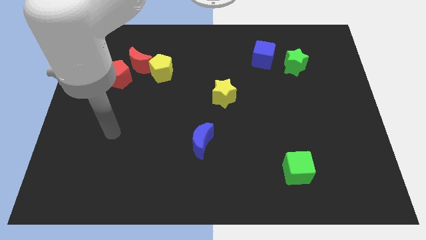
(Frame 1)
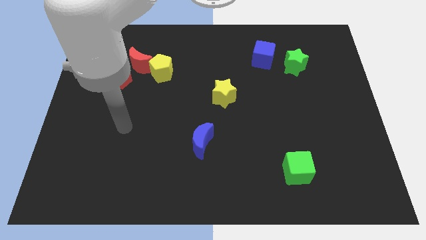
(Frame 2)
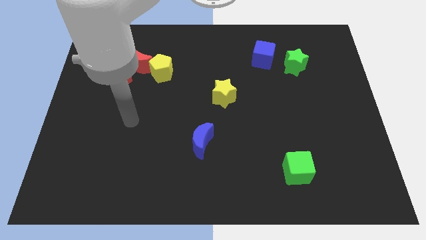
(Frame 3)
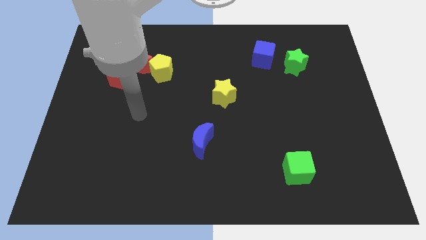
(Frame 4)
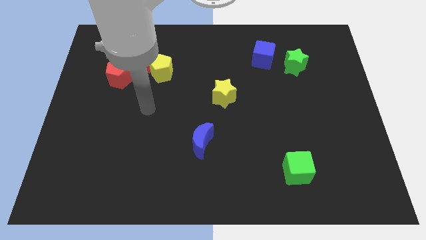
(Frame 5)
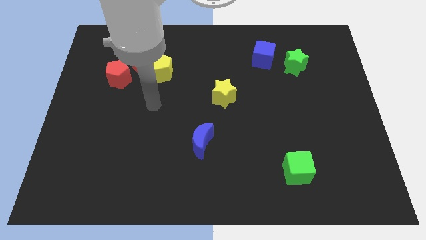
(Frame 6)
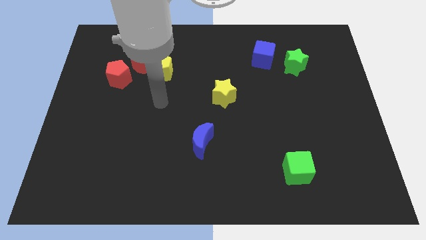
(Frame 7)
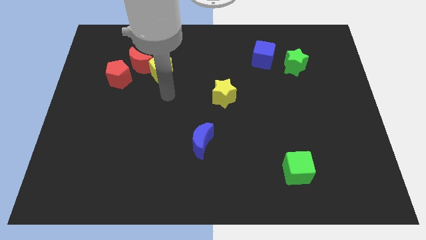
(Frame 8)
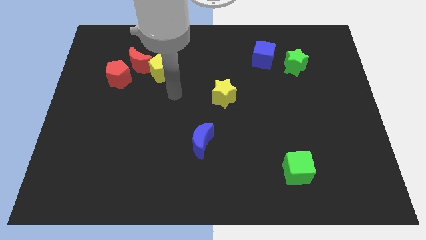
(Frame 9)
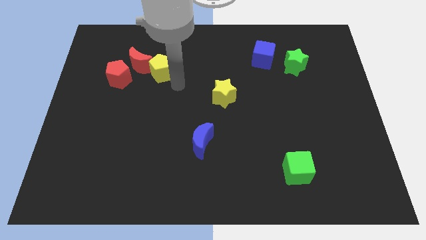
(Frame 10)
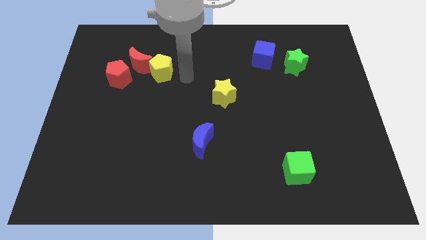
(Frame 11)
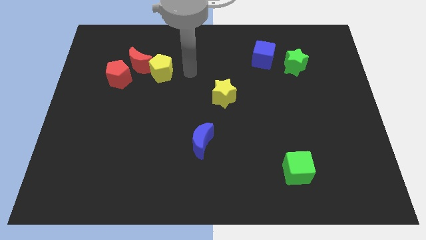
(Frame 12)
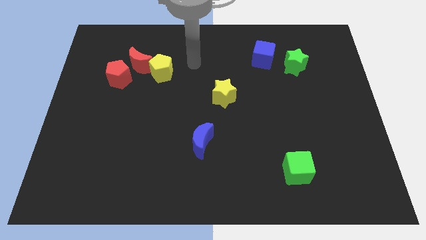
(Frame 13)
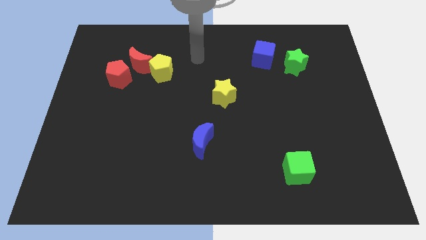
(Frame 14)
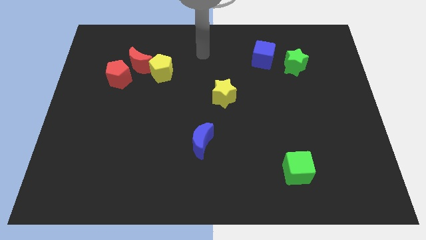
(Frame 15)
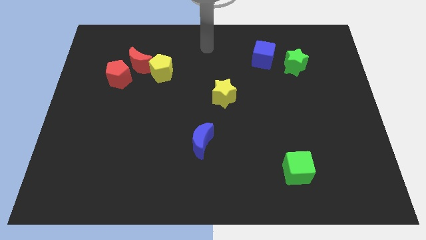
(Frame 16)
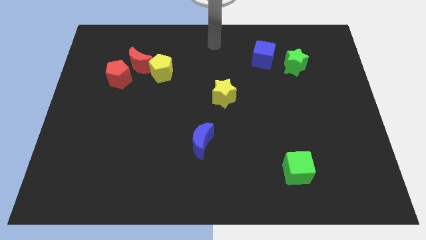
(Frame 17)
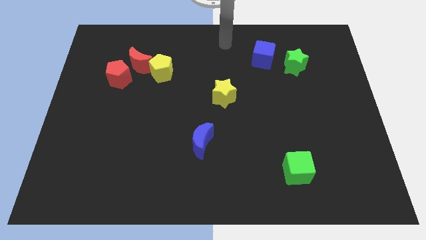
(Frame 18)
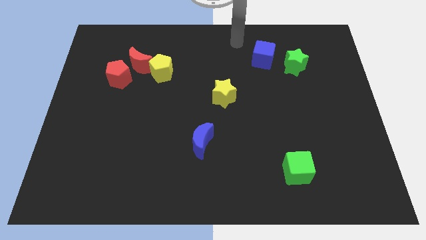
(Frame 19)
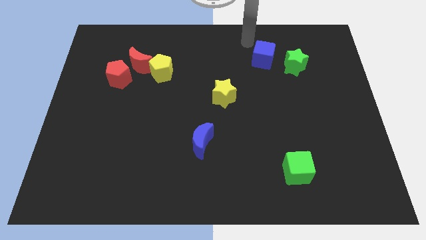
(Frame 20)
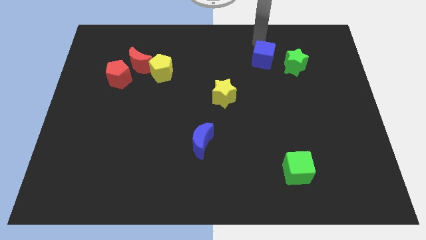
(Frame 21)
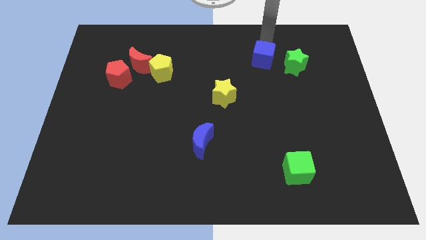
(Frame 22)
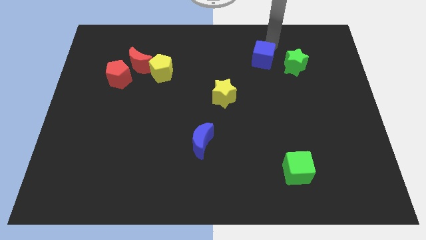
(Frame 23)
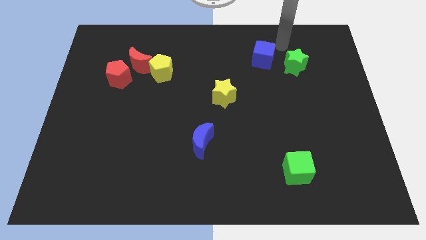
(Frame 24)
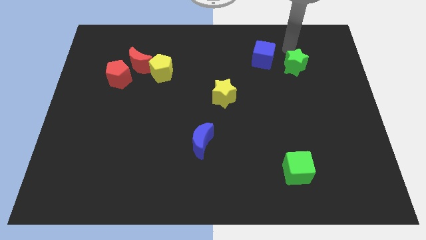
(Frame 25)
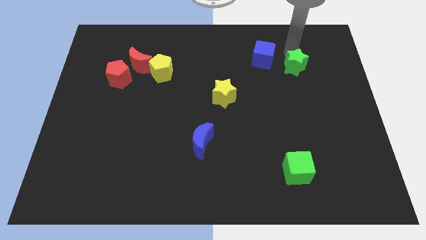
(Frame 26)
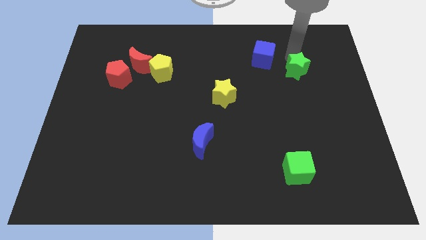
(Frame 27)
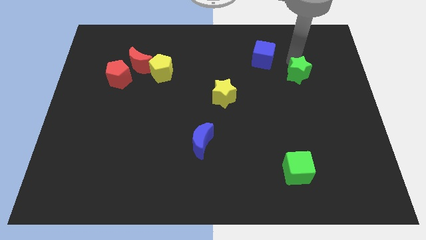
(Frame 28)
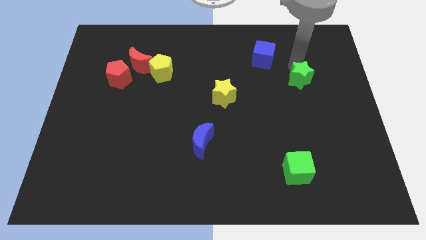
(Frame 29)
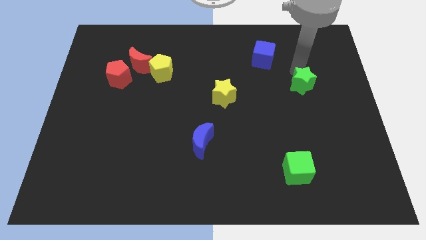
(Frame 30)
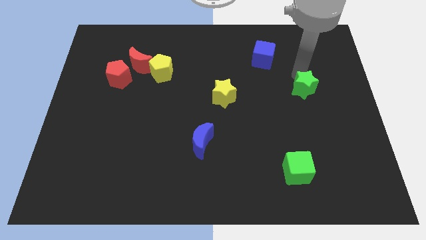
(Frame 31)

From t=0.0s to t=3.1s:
move the green star downwards somewhat

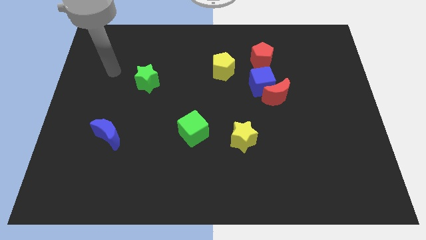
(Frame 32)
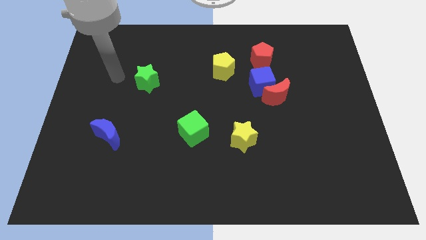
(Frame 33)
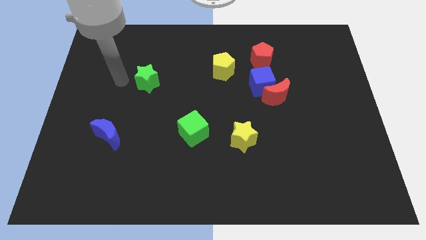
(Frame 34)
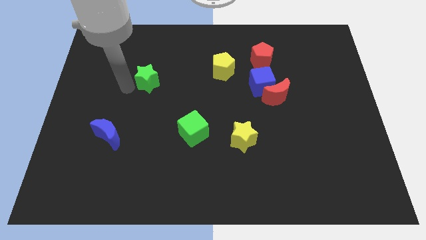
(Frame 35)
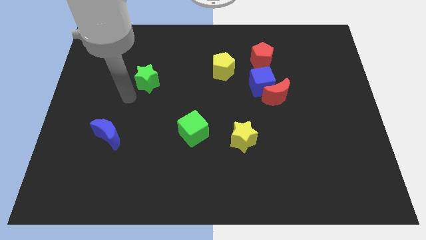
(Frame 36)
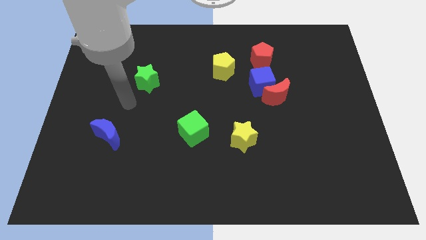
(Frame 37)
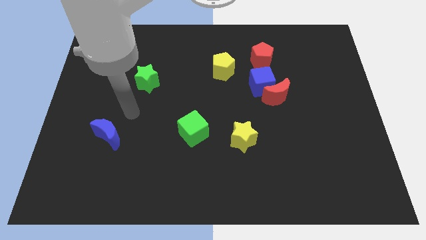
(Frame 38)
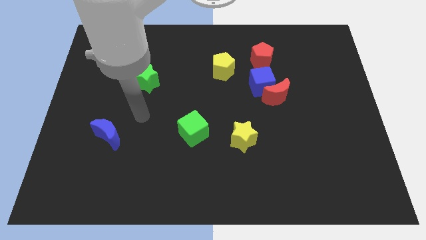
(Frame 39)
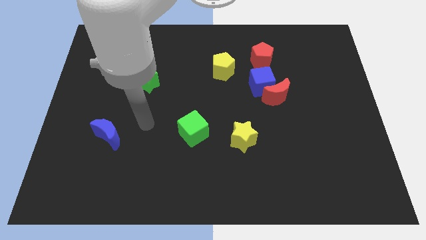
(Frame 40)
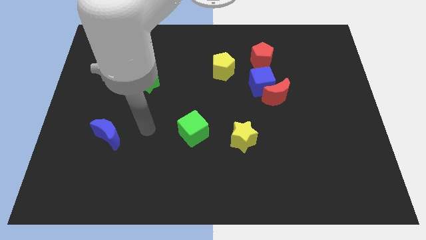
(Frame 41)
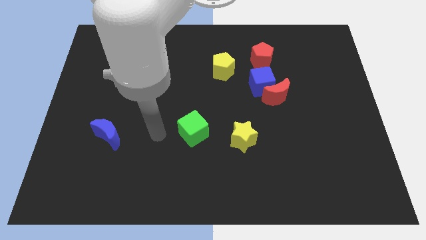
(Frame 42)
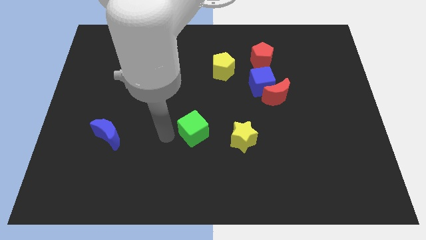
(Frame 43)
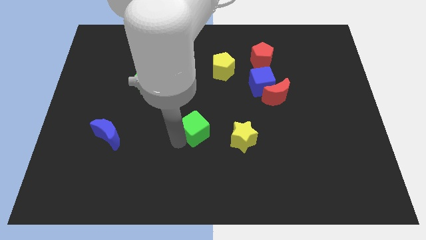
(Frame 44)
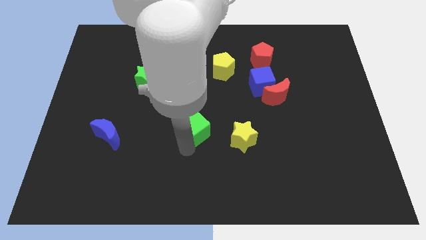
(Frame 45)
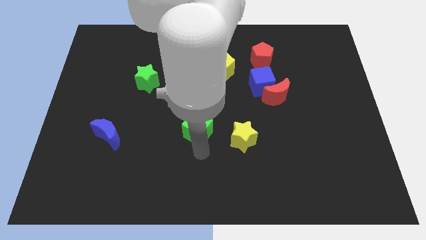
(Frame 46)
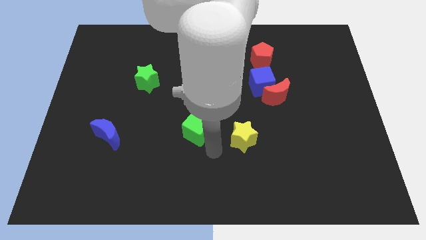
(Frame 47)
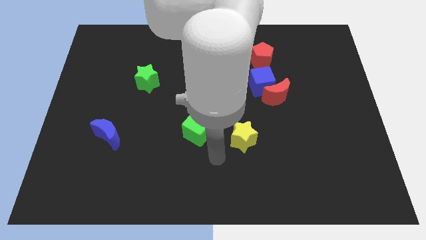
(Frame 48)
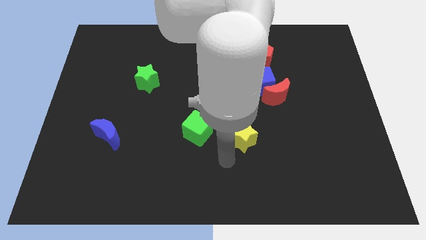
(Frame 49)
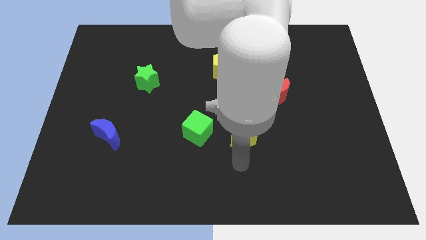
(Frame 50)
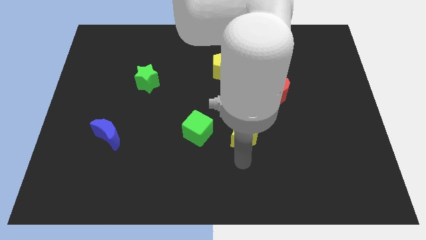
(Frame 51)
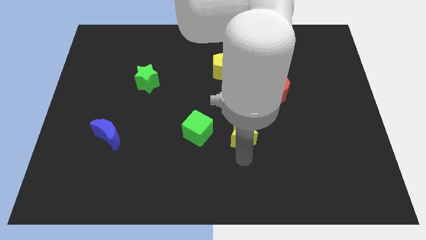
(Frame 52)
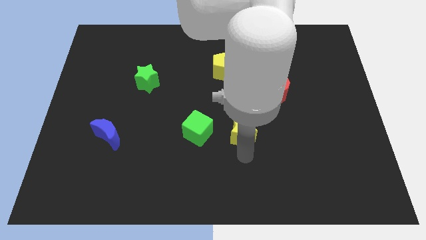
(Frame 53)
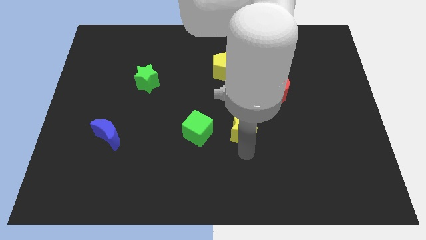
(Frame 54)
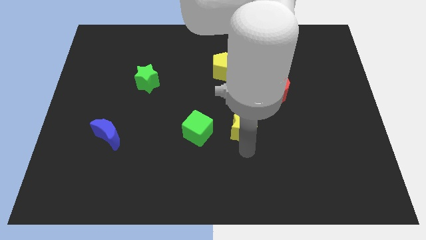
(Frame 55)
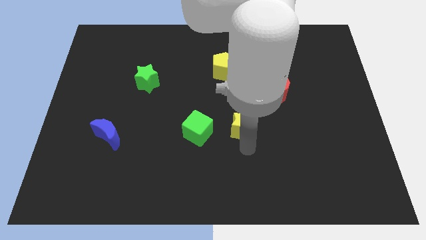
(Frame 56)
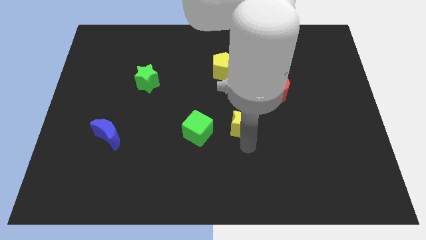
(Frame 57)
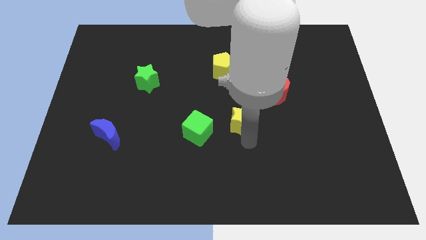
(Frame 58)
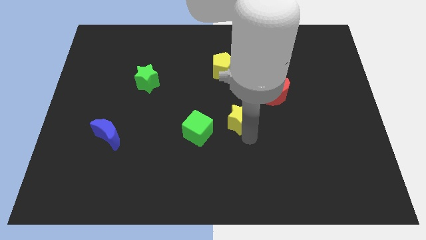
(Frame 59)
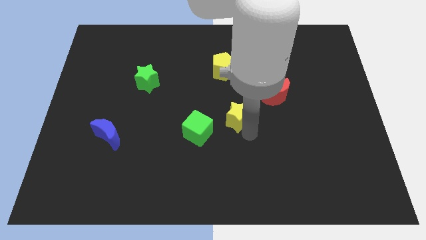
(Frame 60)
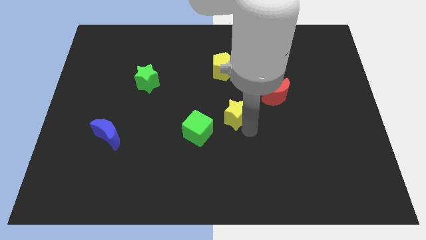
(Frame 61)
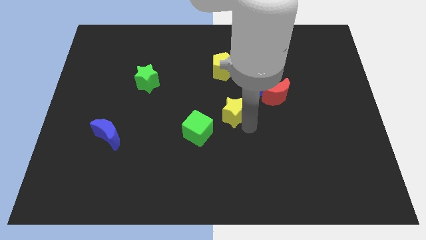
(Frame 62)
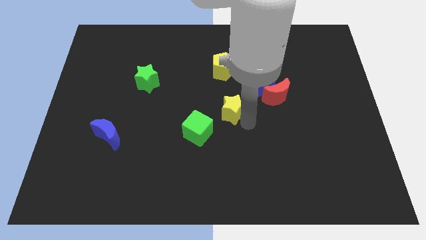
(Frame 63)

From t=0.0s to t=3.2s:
slightly move the yellow star upwards

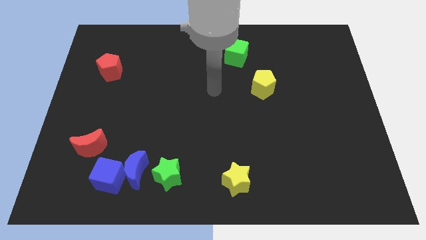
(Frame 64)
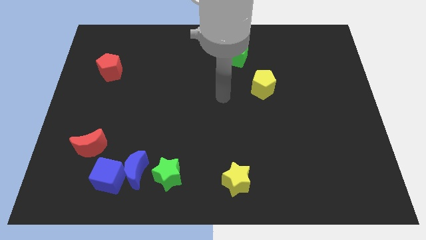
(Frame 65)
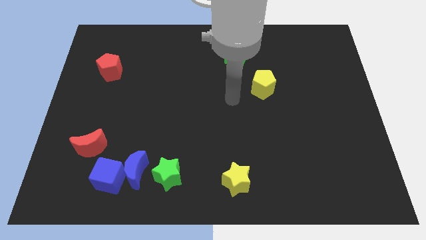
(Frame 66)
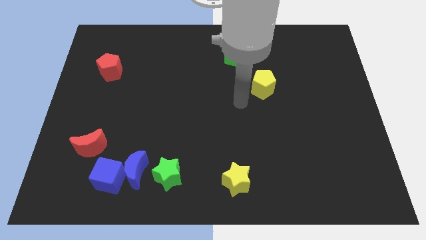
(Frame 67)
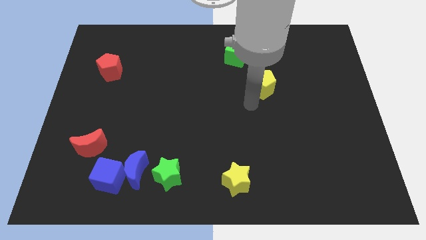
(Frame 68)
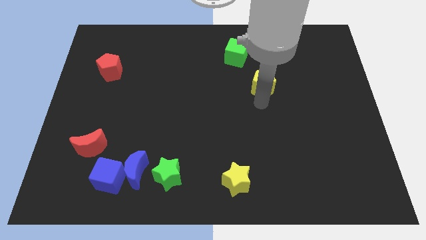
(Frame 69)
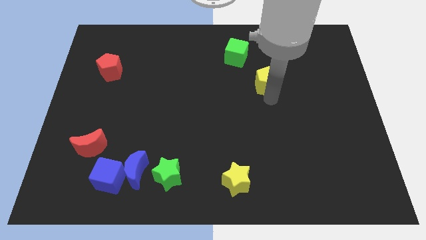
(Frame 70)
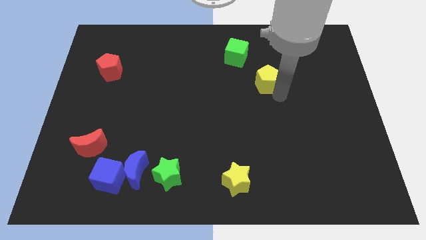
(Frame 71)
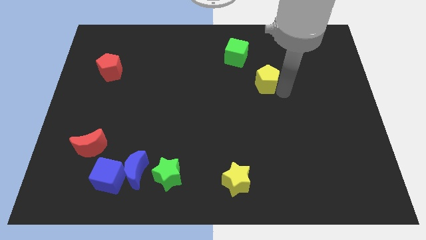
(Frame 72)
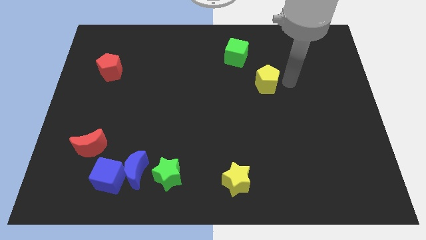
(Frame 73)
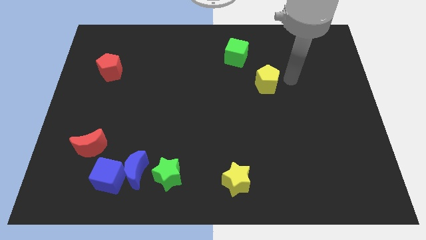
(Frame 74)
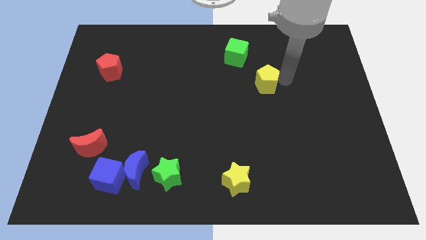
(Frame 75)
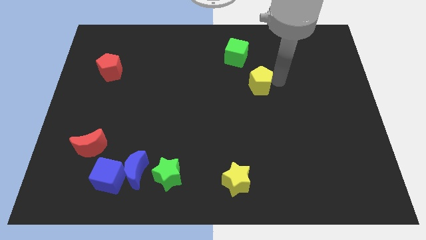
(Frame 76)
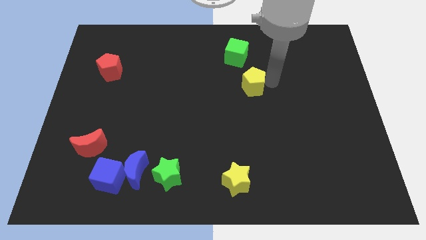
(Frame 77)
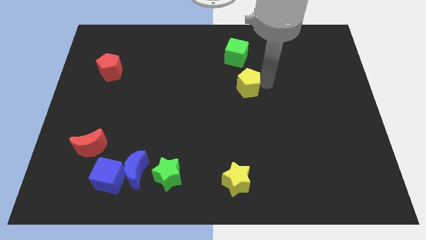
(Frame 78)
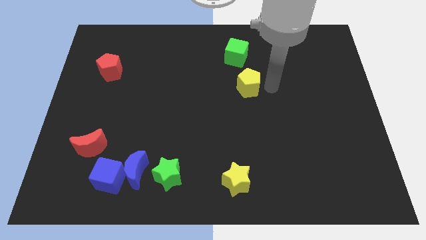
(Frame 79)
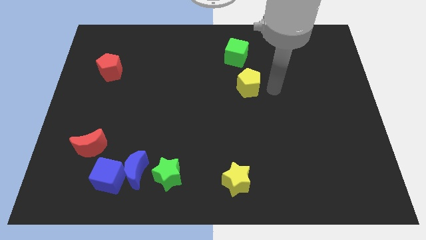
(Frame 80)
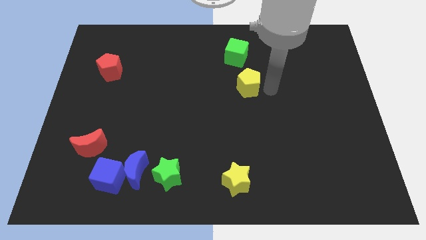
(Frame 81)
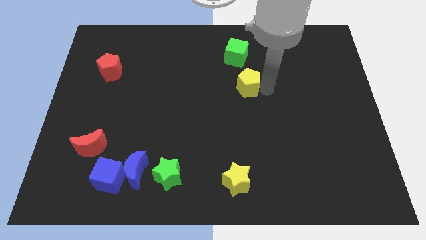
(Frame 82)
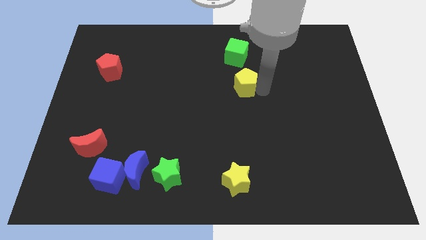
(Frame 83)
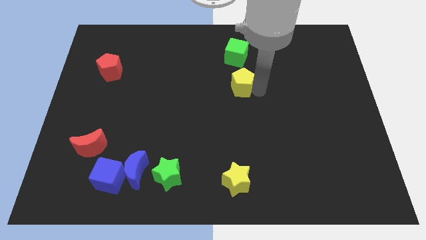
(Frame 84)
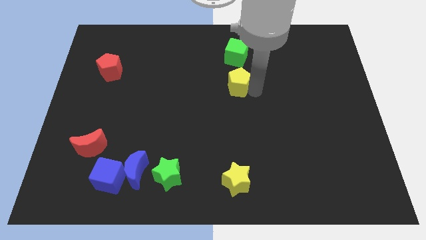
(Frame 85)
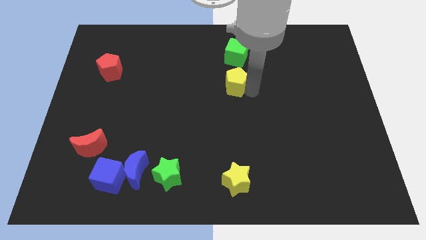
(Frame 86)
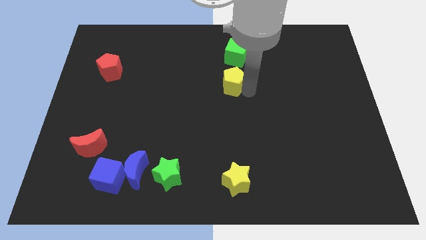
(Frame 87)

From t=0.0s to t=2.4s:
push the yellow pentagon left a little
